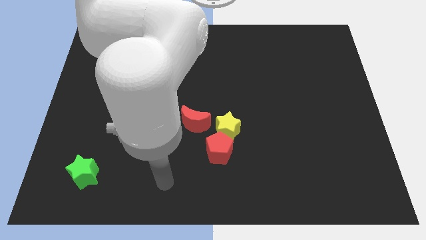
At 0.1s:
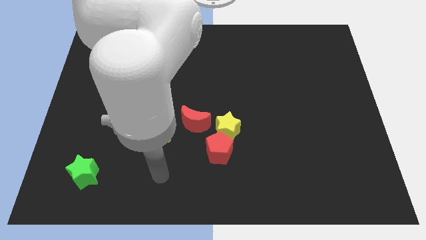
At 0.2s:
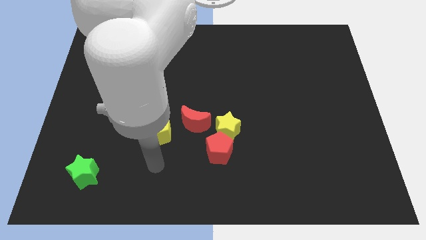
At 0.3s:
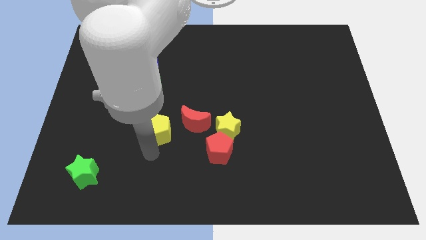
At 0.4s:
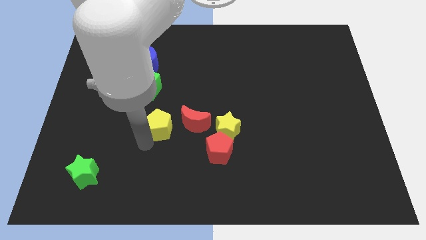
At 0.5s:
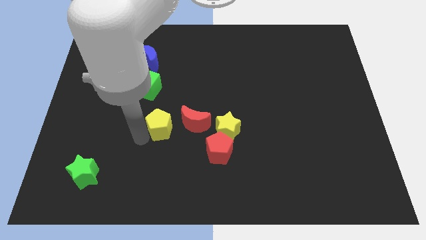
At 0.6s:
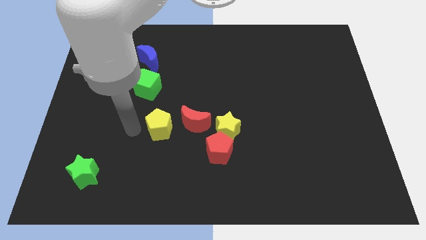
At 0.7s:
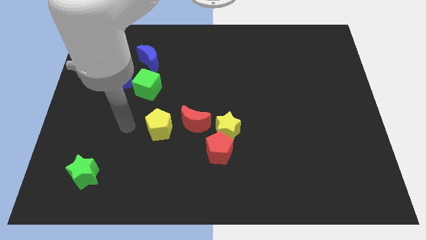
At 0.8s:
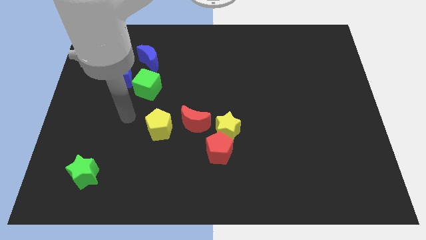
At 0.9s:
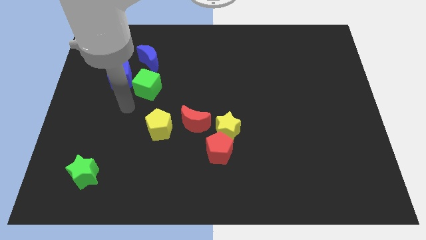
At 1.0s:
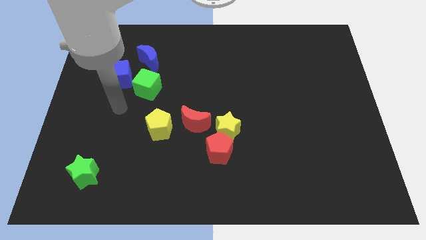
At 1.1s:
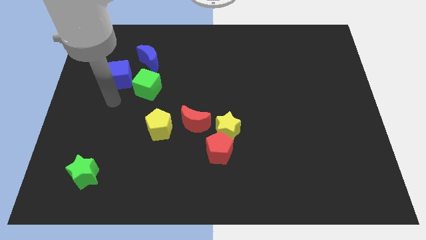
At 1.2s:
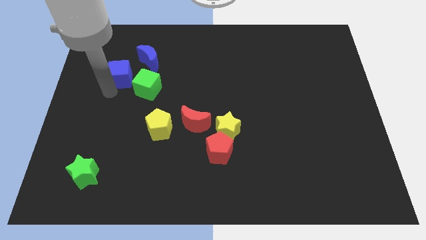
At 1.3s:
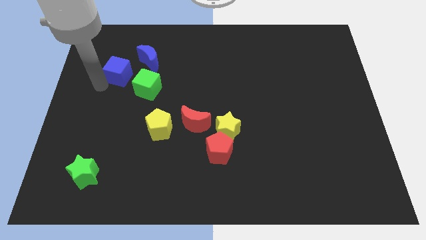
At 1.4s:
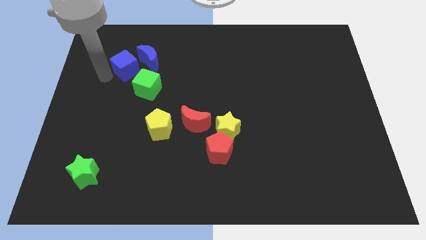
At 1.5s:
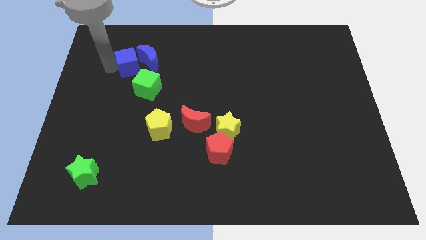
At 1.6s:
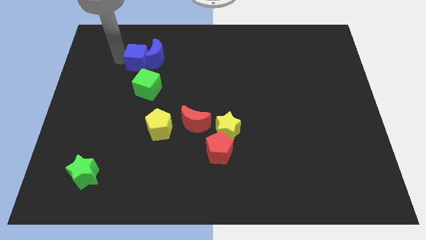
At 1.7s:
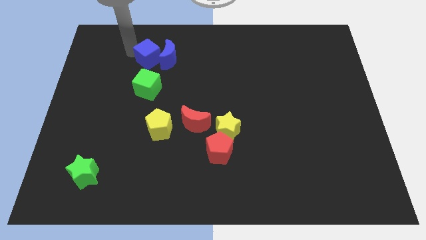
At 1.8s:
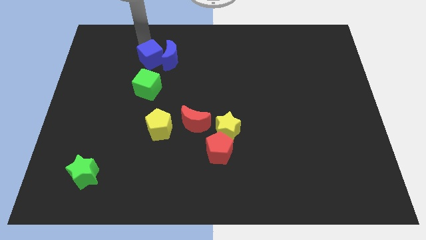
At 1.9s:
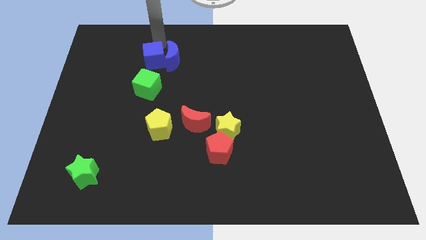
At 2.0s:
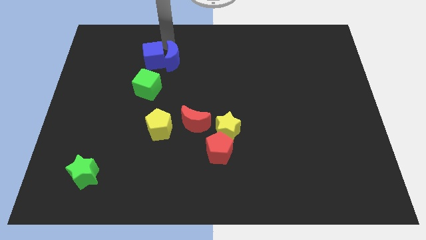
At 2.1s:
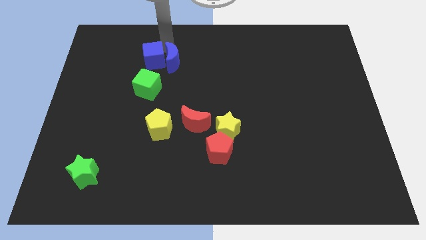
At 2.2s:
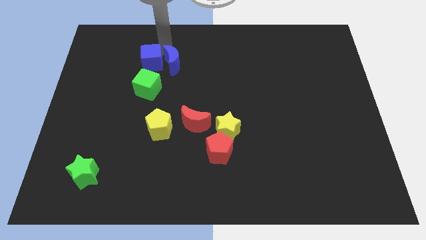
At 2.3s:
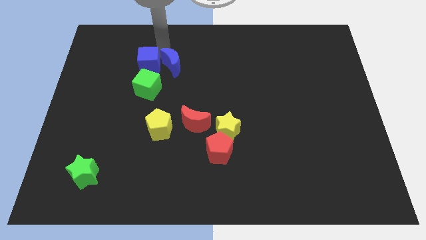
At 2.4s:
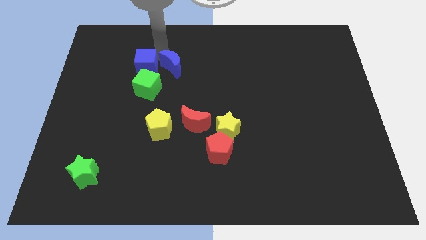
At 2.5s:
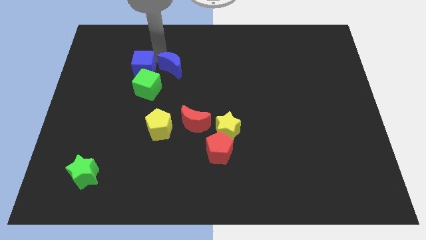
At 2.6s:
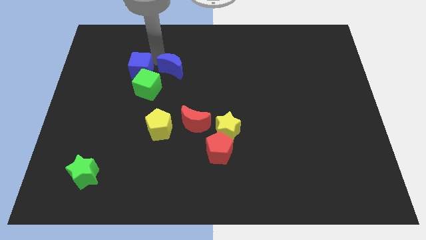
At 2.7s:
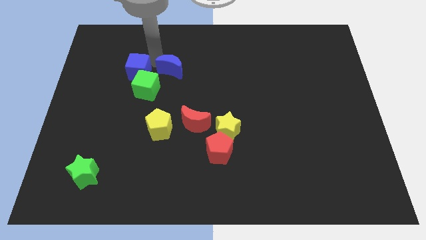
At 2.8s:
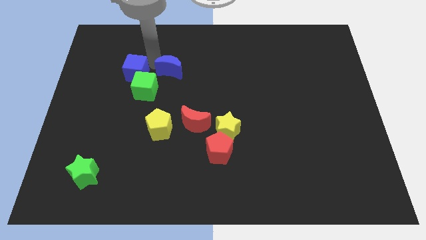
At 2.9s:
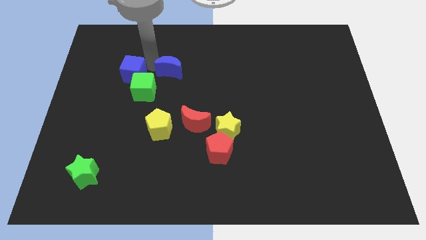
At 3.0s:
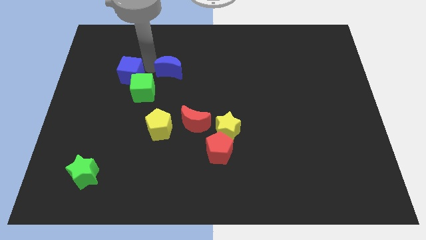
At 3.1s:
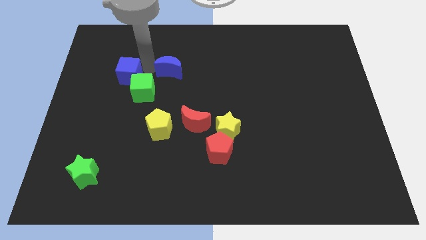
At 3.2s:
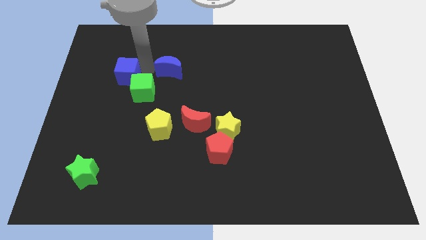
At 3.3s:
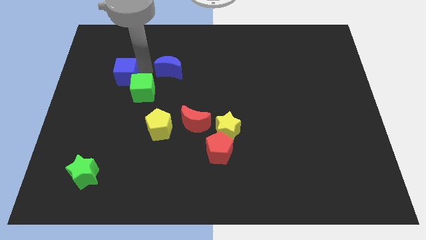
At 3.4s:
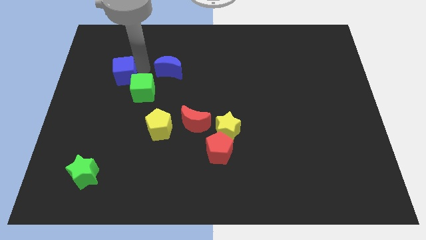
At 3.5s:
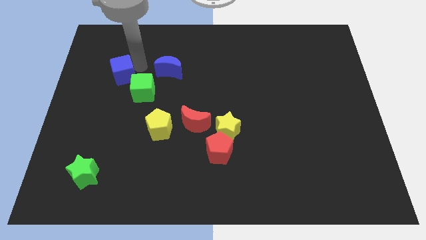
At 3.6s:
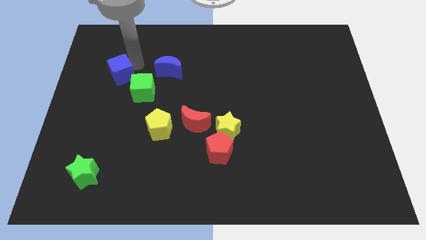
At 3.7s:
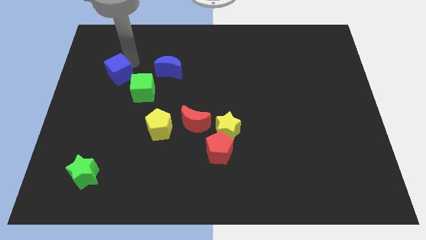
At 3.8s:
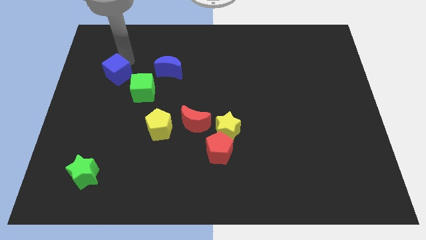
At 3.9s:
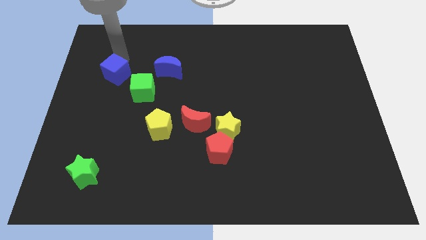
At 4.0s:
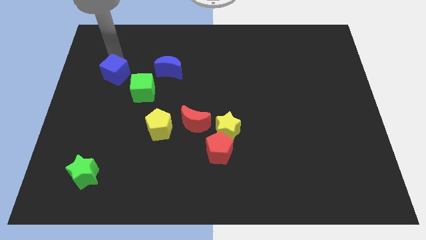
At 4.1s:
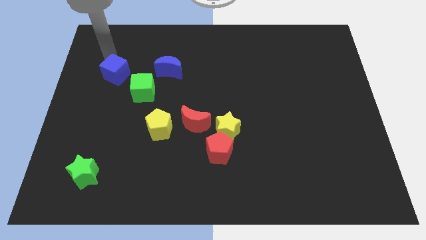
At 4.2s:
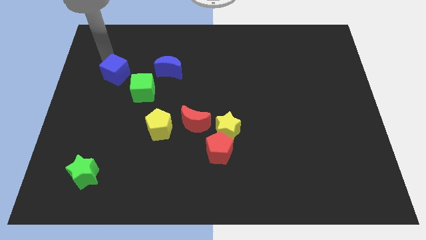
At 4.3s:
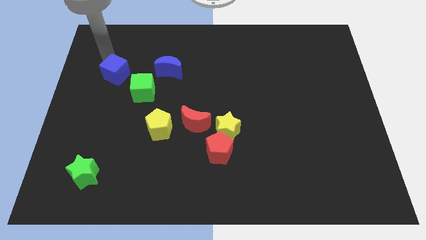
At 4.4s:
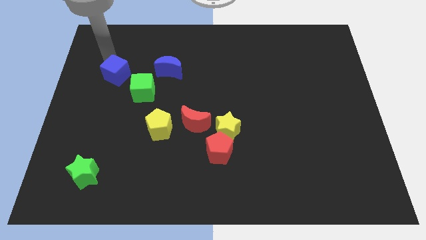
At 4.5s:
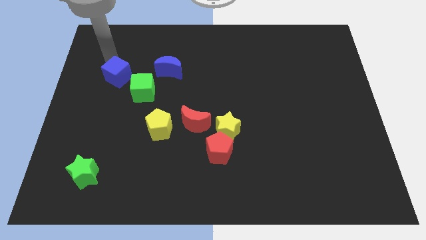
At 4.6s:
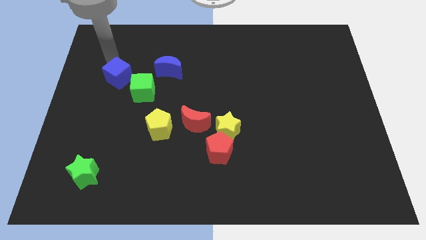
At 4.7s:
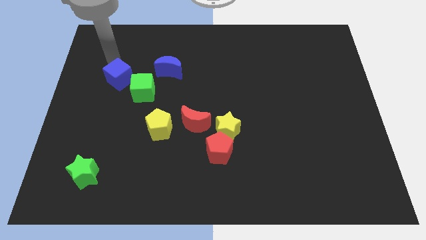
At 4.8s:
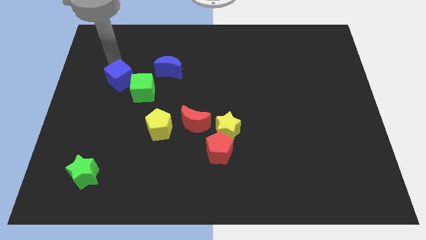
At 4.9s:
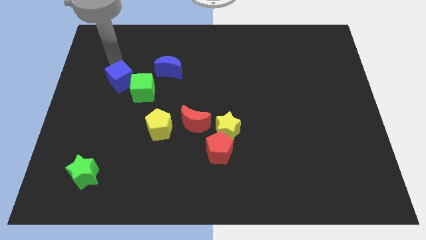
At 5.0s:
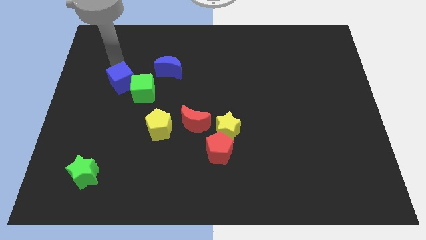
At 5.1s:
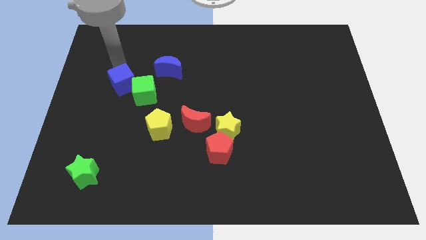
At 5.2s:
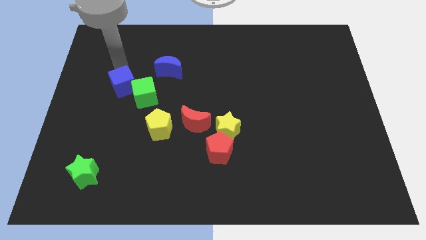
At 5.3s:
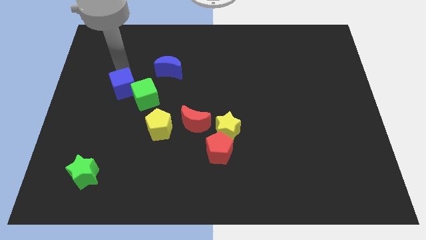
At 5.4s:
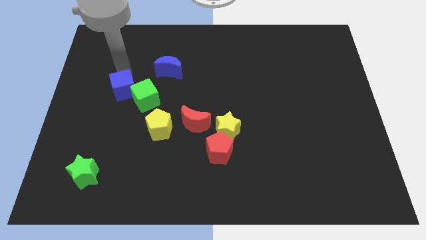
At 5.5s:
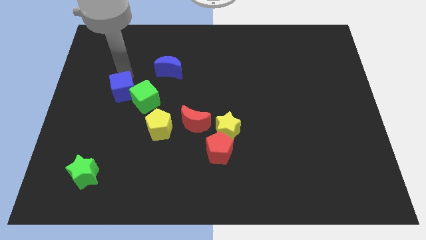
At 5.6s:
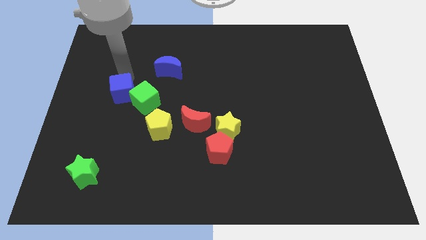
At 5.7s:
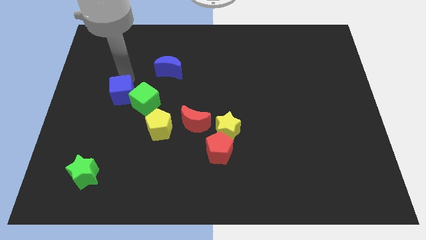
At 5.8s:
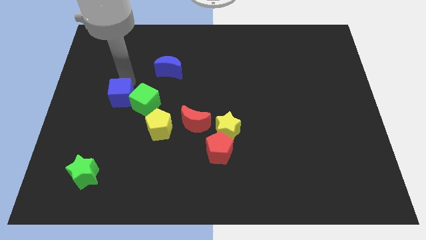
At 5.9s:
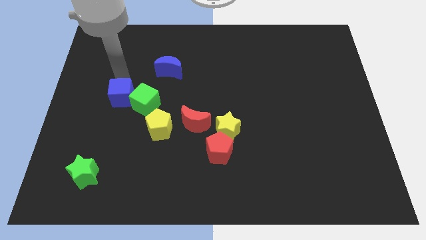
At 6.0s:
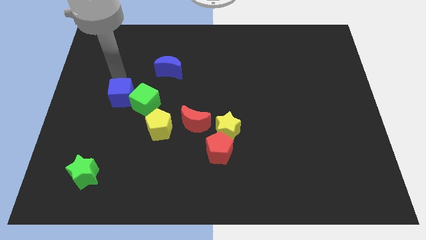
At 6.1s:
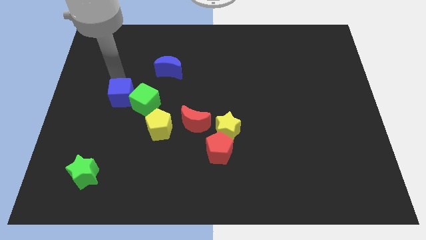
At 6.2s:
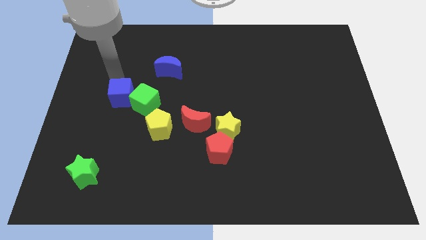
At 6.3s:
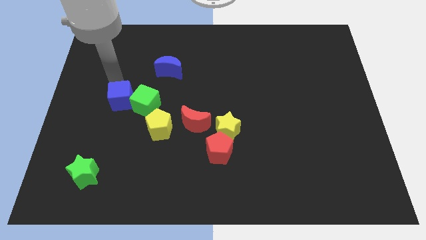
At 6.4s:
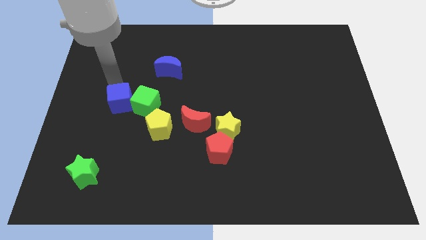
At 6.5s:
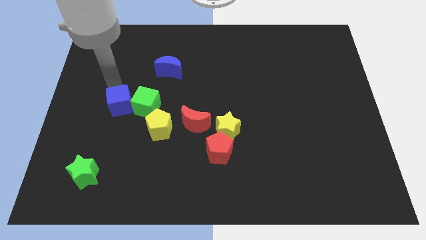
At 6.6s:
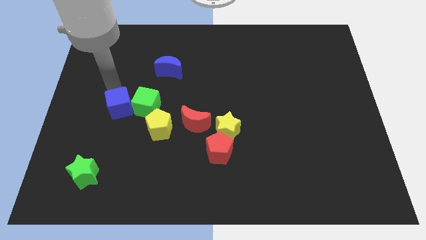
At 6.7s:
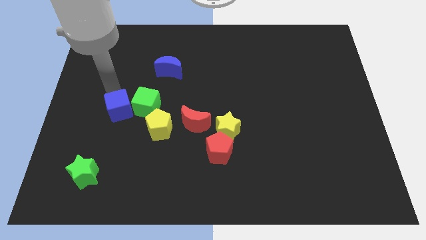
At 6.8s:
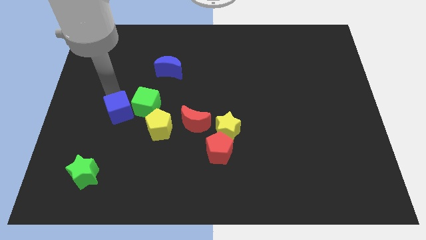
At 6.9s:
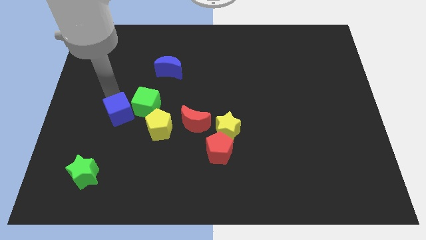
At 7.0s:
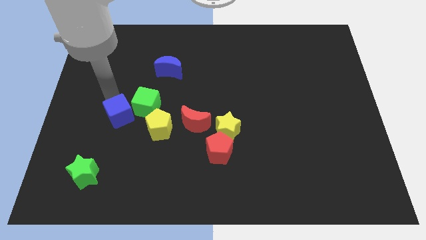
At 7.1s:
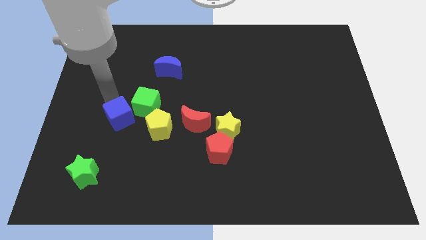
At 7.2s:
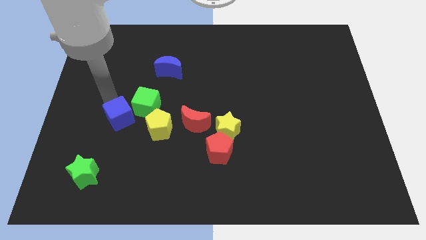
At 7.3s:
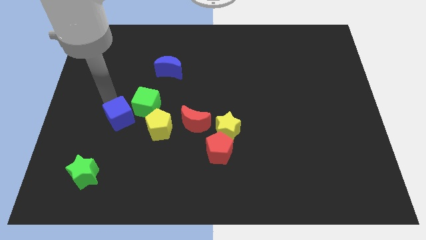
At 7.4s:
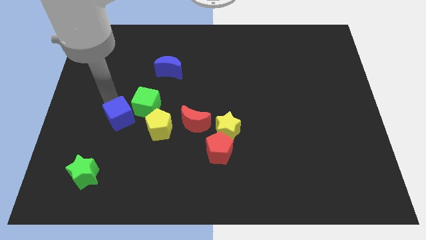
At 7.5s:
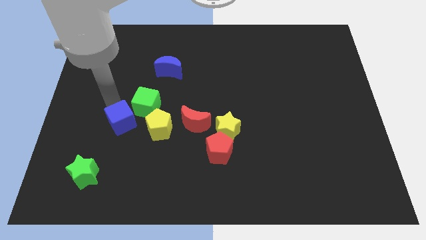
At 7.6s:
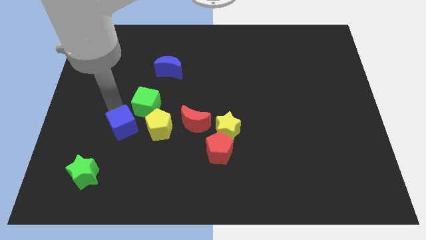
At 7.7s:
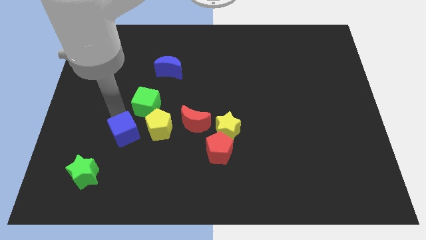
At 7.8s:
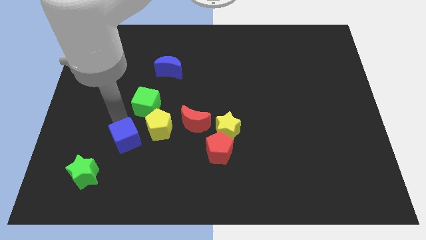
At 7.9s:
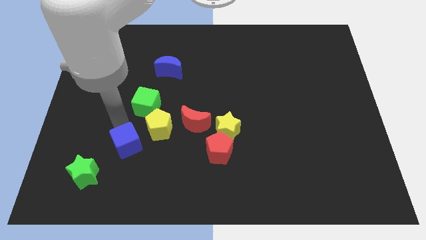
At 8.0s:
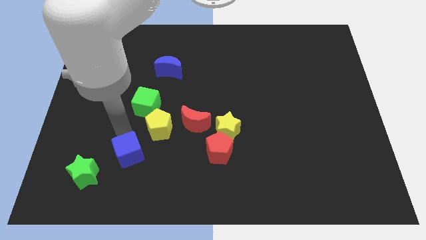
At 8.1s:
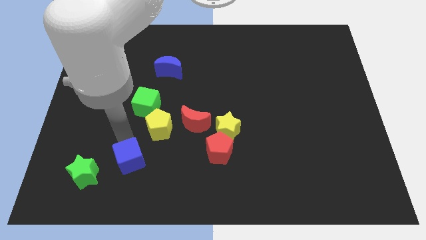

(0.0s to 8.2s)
put the blue cube to the right of the green star
